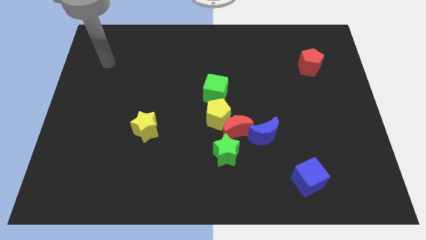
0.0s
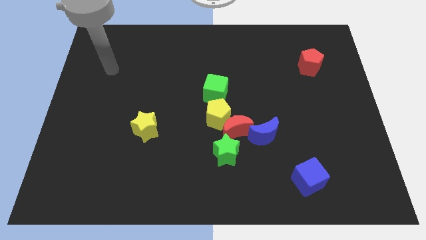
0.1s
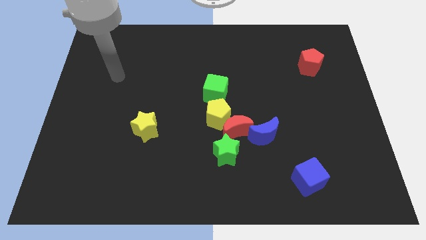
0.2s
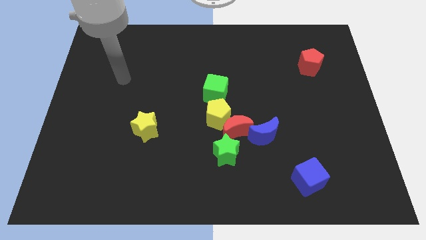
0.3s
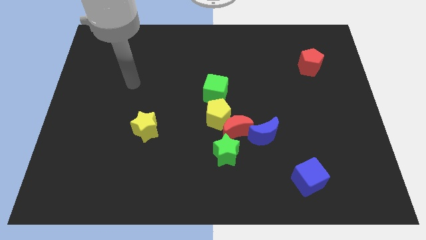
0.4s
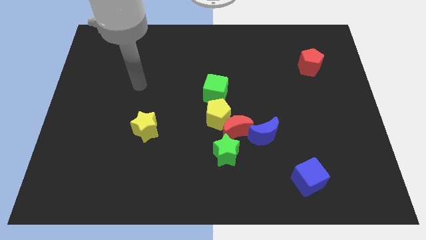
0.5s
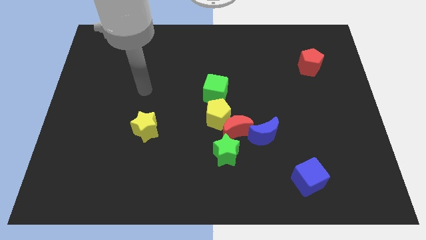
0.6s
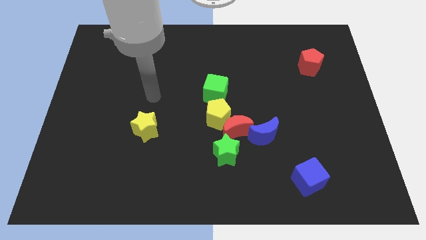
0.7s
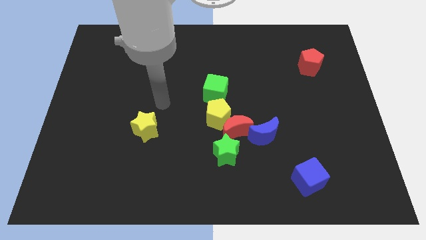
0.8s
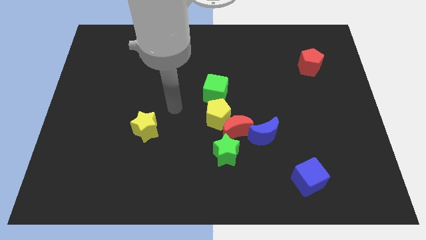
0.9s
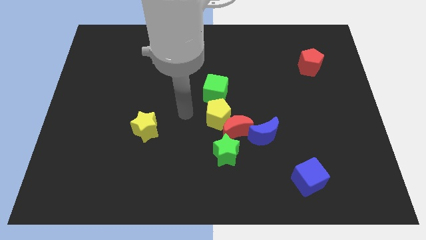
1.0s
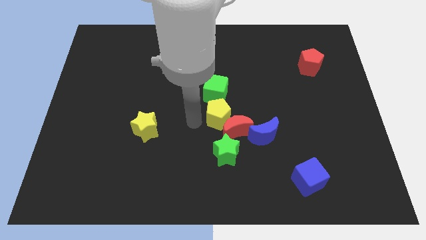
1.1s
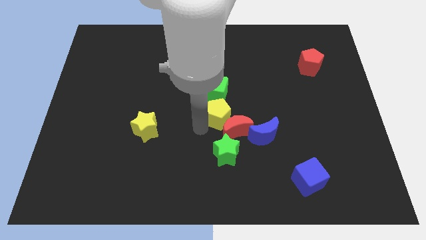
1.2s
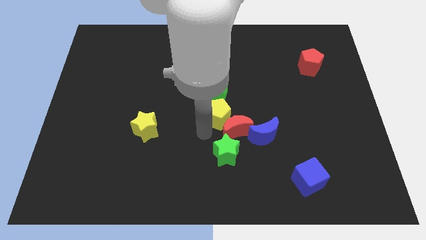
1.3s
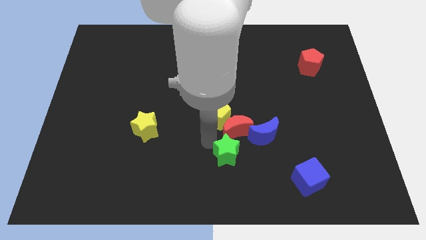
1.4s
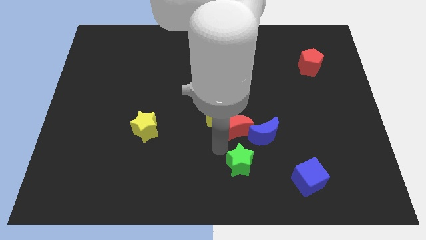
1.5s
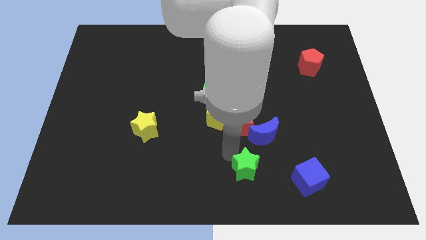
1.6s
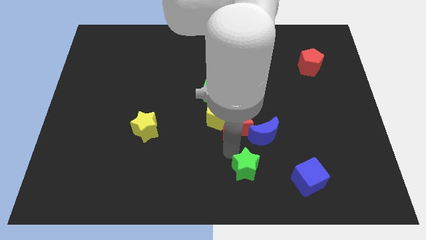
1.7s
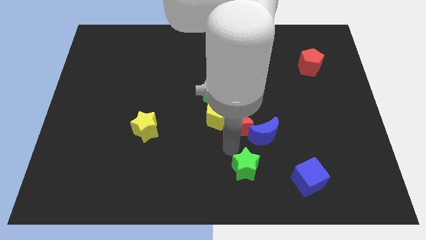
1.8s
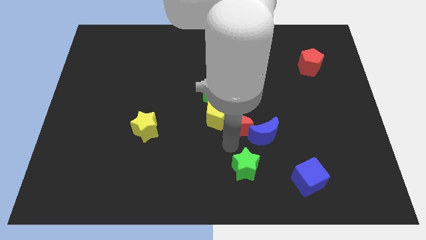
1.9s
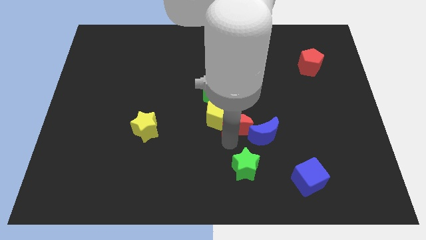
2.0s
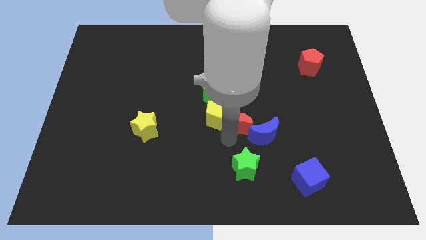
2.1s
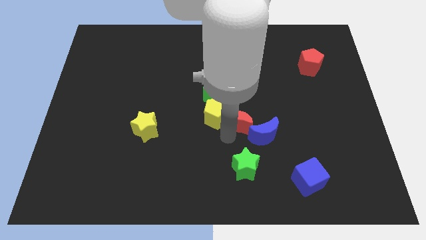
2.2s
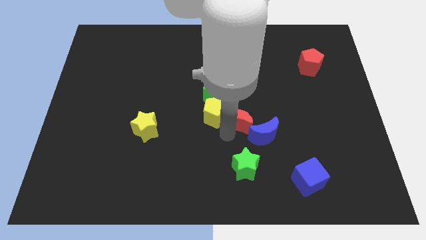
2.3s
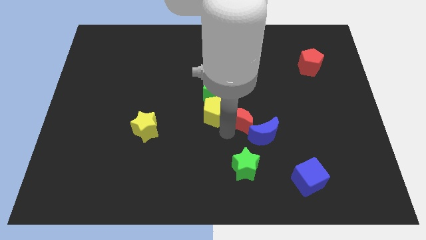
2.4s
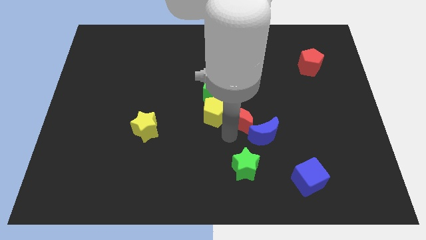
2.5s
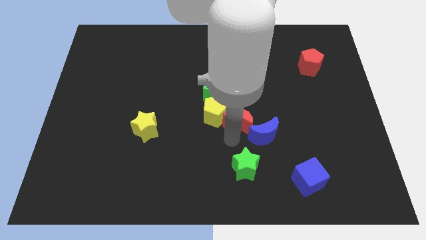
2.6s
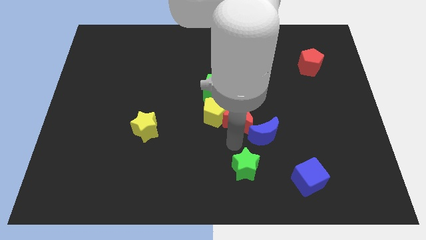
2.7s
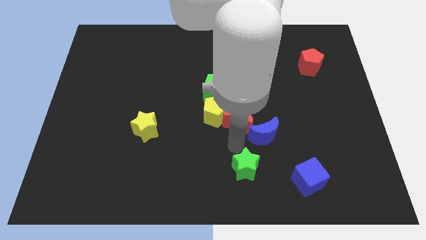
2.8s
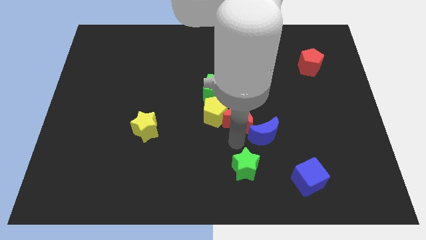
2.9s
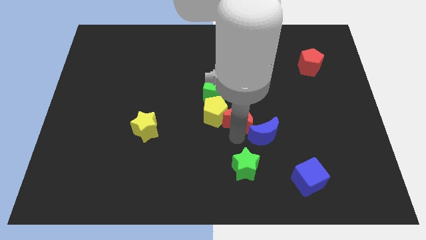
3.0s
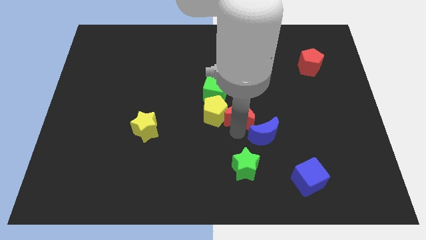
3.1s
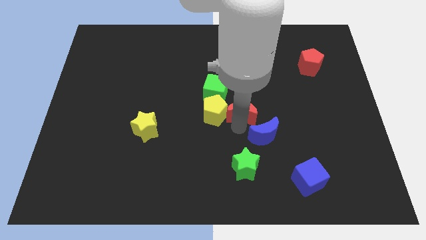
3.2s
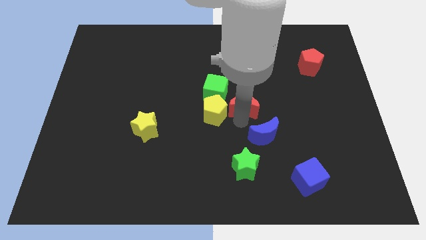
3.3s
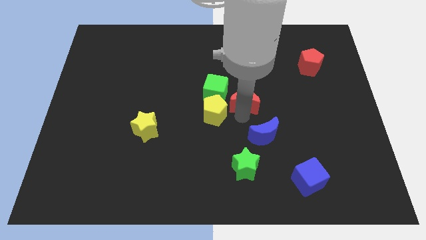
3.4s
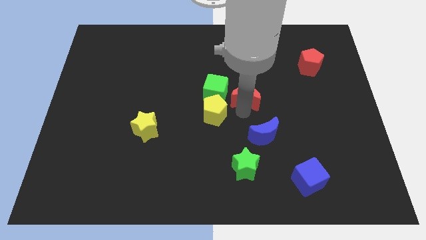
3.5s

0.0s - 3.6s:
pull the red moon apart from the yellow pentagon, green star, and blue moon

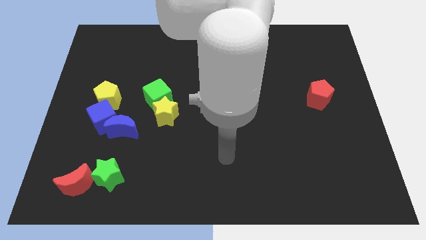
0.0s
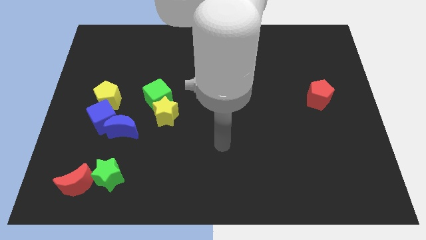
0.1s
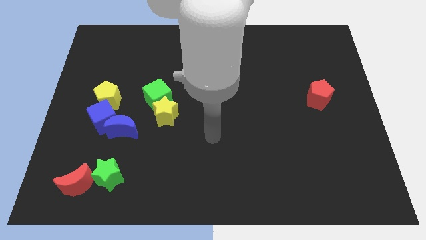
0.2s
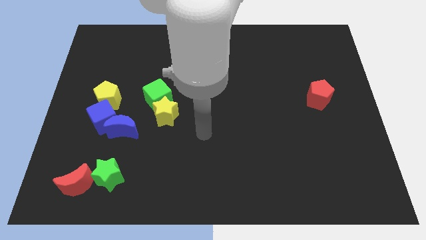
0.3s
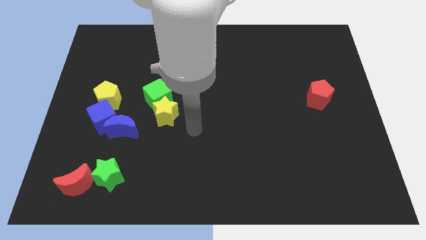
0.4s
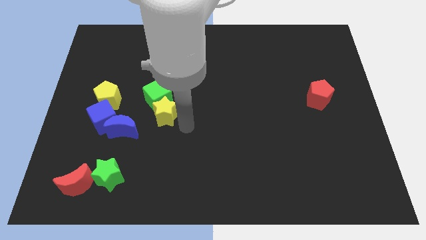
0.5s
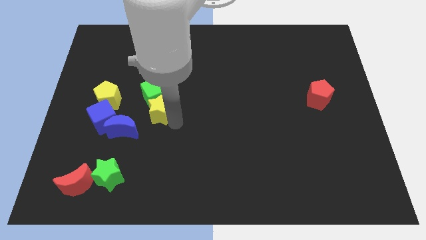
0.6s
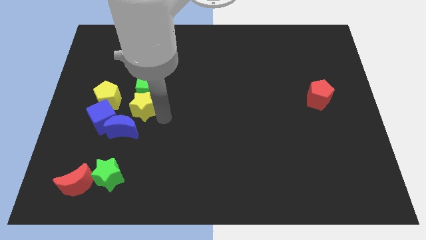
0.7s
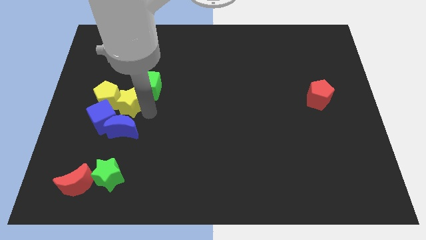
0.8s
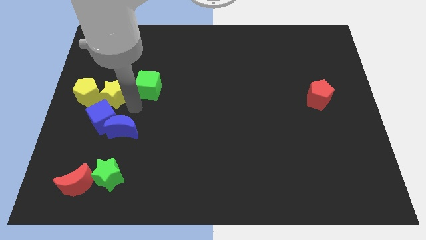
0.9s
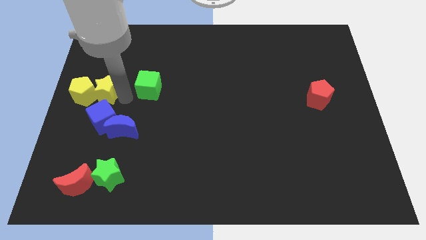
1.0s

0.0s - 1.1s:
move the green cube away from the yellow star

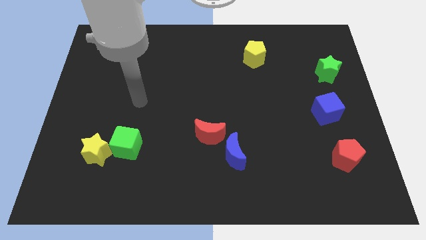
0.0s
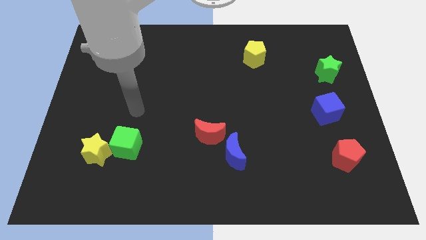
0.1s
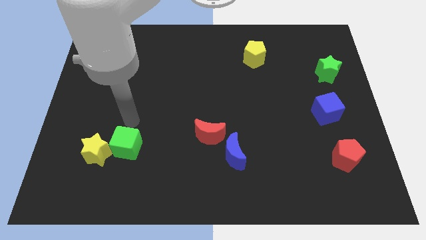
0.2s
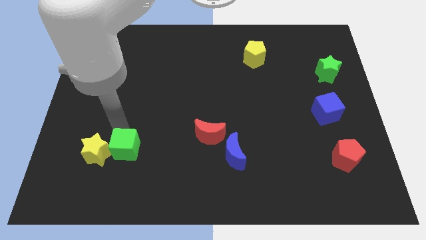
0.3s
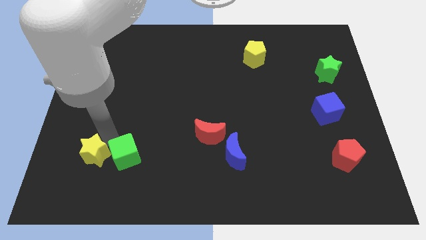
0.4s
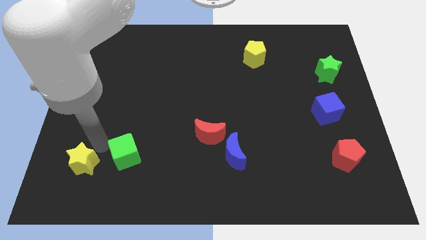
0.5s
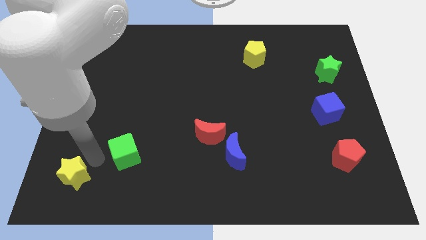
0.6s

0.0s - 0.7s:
pull the green cube apart from the yellow star

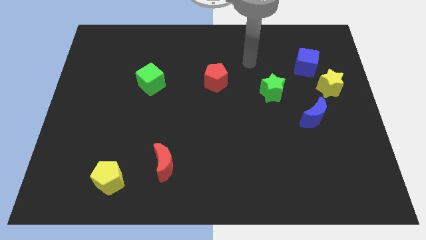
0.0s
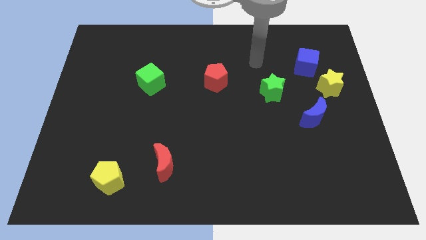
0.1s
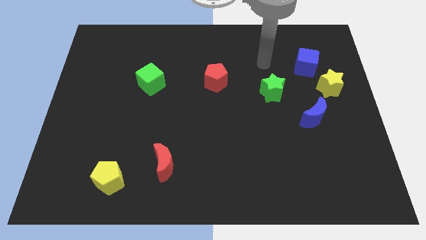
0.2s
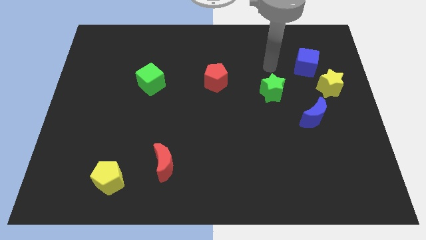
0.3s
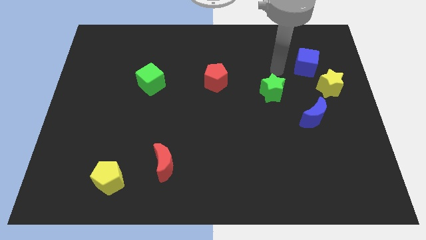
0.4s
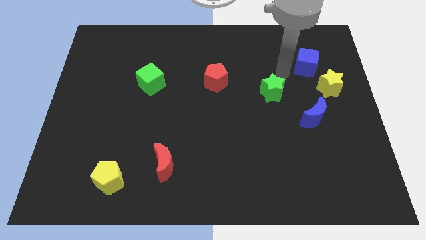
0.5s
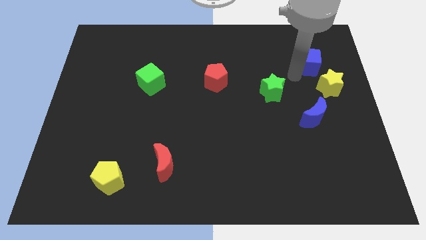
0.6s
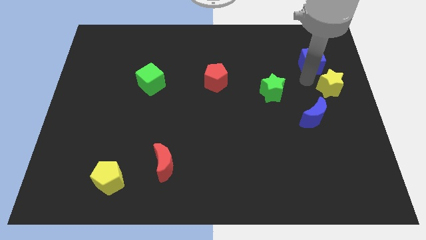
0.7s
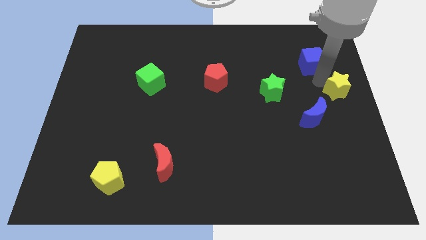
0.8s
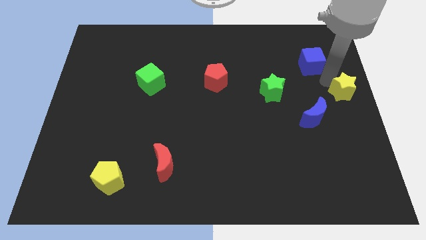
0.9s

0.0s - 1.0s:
pull the blue cube apart from the yellow star

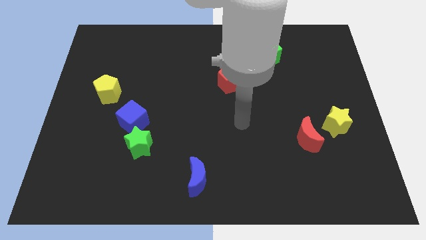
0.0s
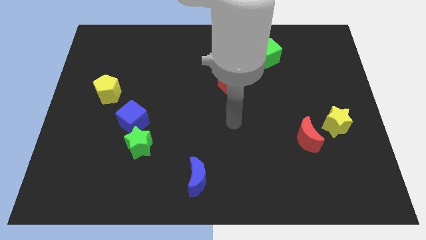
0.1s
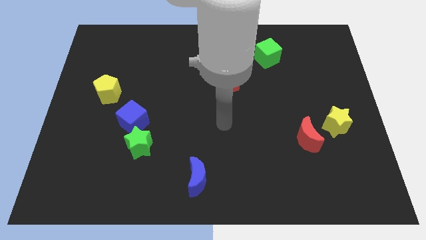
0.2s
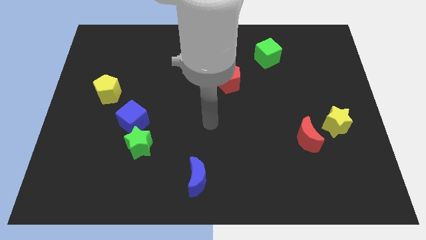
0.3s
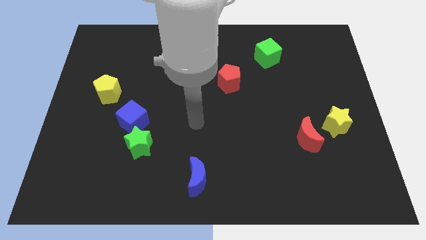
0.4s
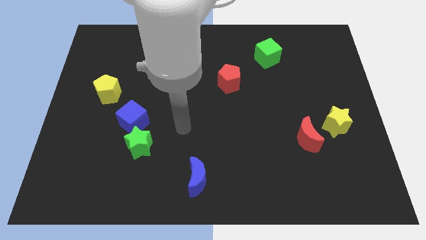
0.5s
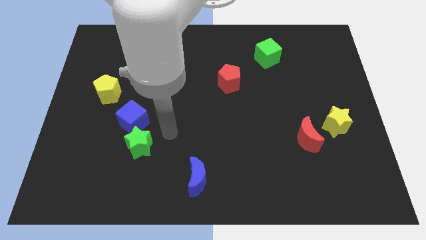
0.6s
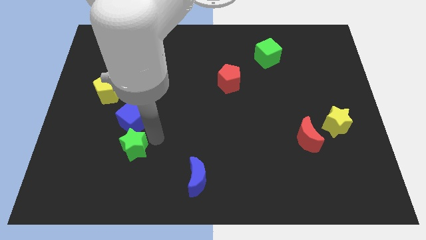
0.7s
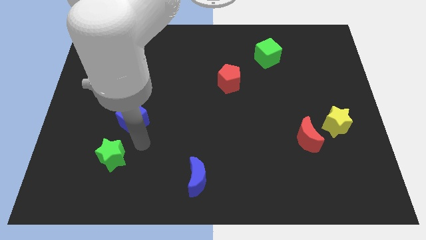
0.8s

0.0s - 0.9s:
pull the blue cube apart from the green star

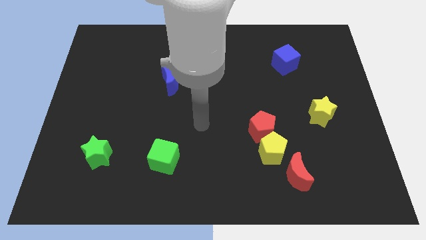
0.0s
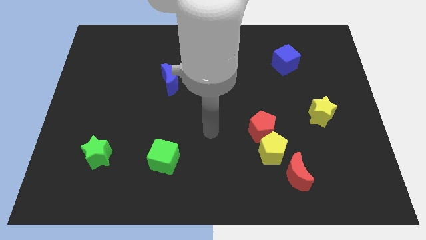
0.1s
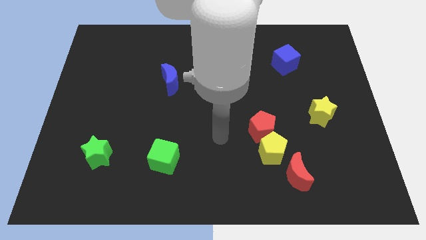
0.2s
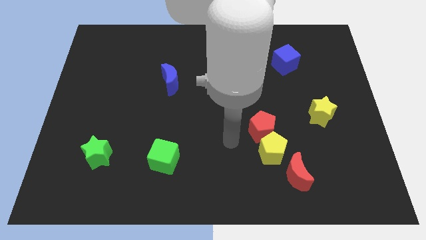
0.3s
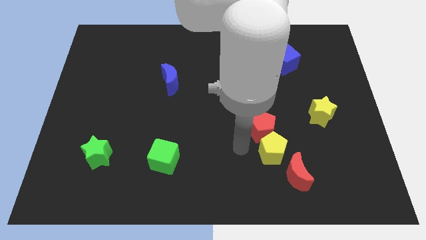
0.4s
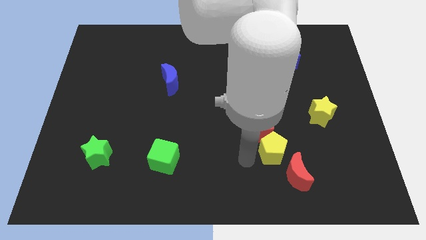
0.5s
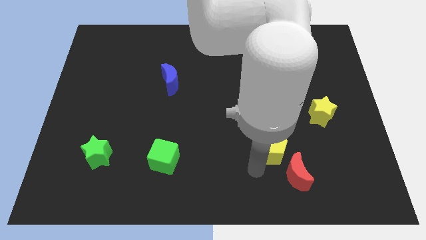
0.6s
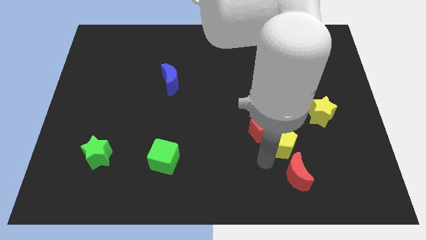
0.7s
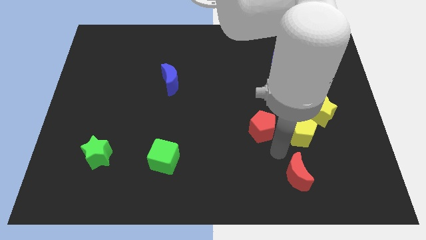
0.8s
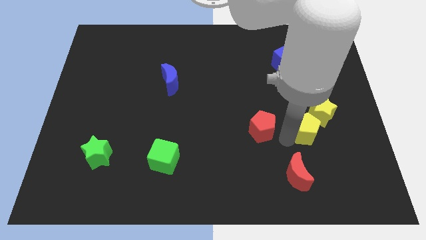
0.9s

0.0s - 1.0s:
move the red pentagon away from the yellow pentagon

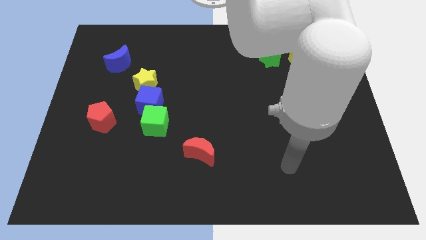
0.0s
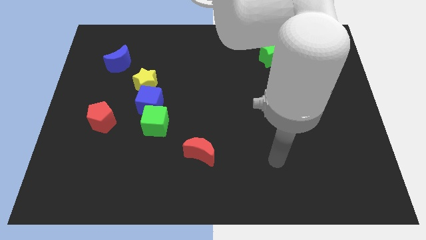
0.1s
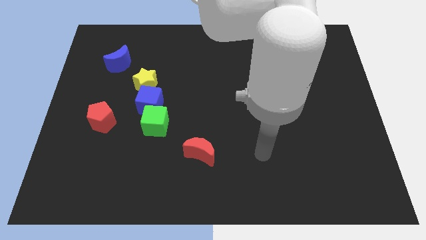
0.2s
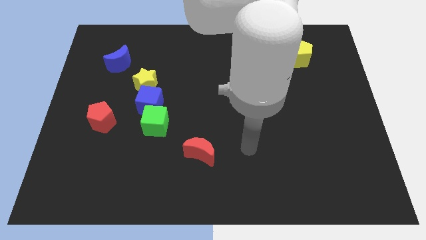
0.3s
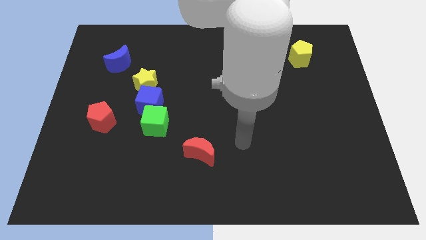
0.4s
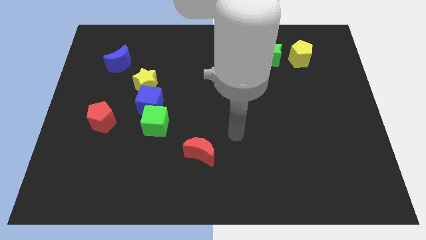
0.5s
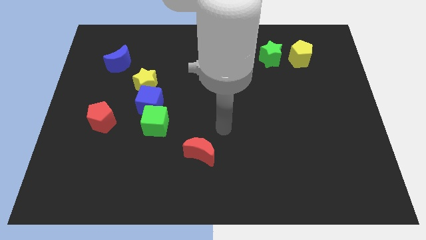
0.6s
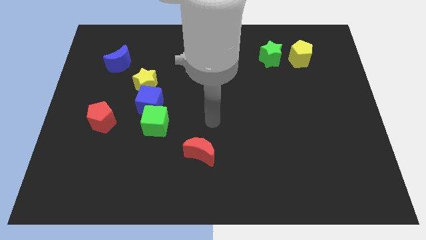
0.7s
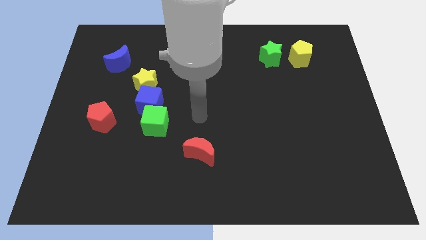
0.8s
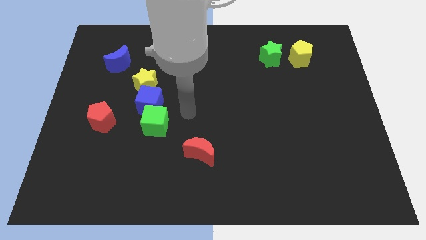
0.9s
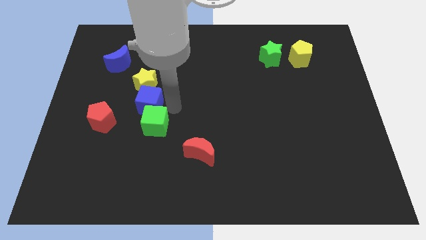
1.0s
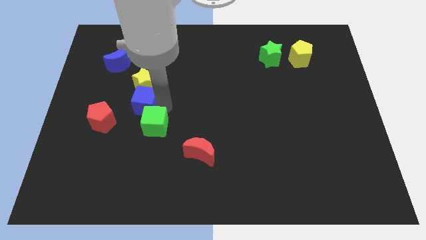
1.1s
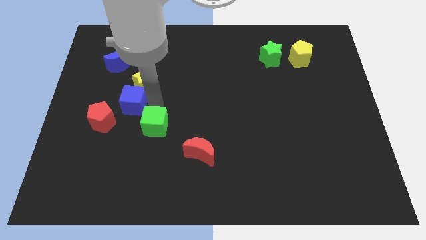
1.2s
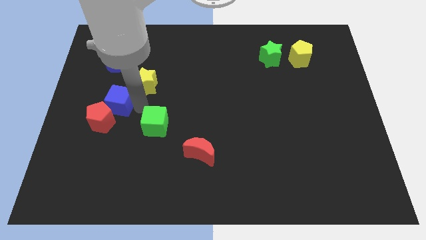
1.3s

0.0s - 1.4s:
pull the green cube apart from the blue cube
